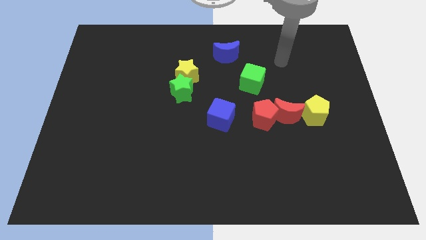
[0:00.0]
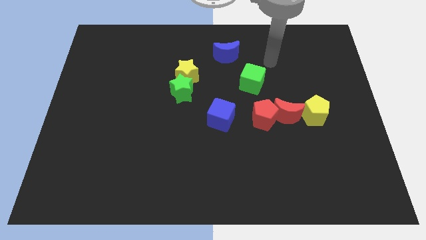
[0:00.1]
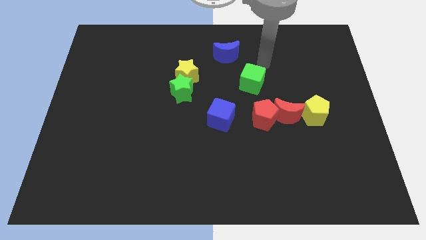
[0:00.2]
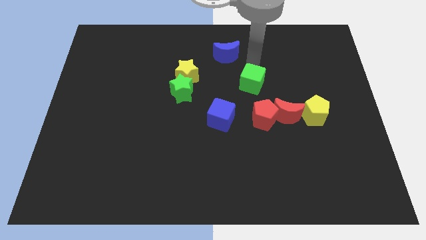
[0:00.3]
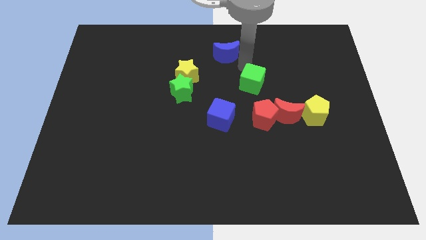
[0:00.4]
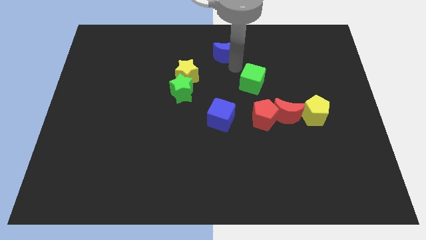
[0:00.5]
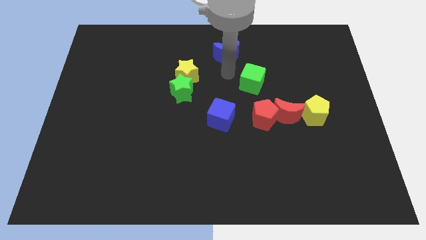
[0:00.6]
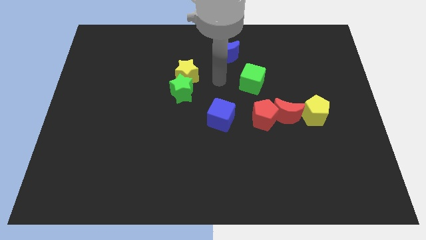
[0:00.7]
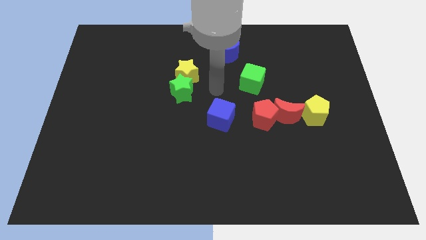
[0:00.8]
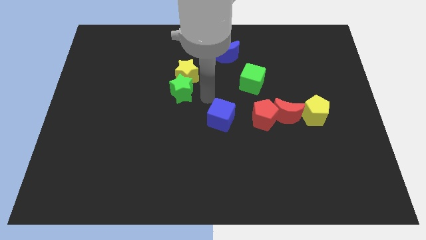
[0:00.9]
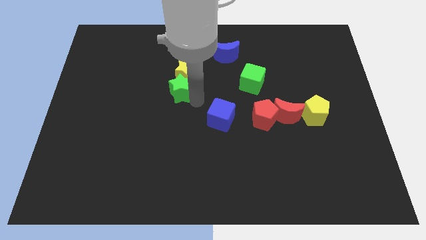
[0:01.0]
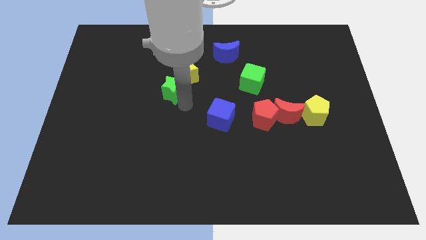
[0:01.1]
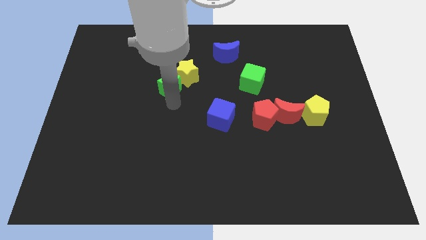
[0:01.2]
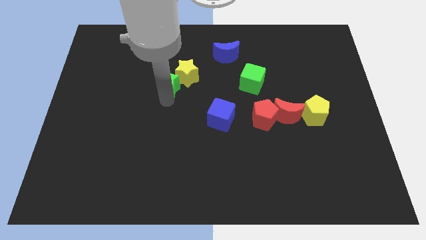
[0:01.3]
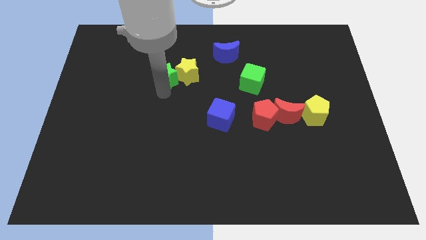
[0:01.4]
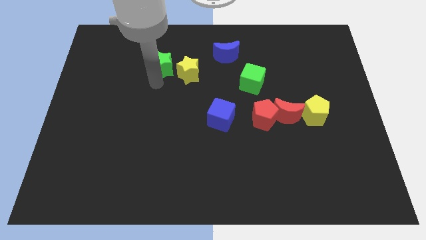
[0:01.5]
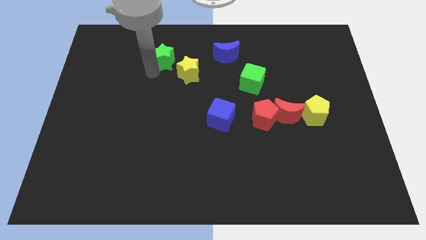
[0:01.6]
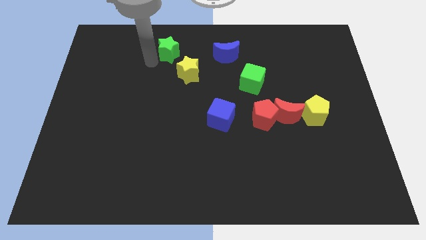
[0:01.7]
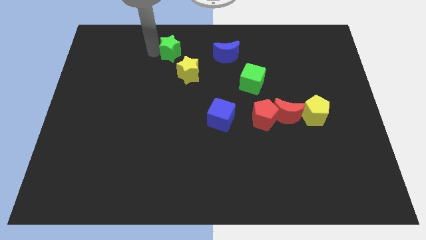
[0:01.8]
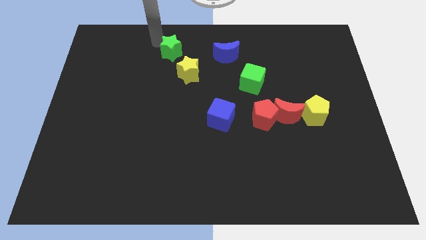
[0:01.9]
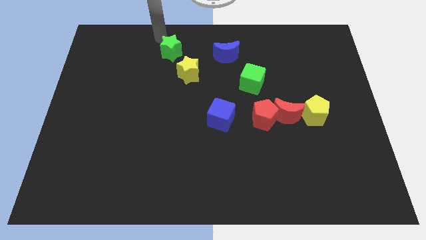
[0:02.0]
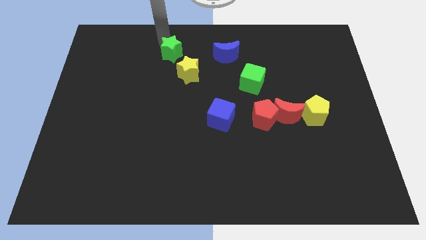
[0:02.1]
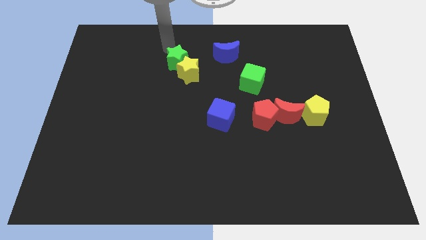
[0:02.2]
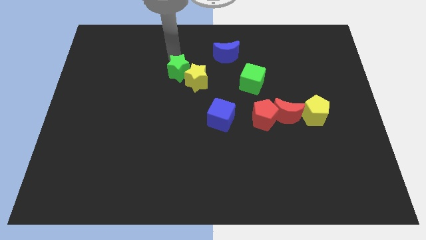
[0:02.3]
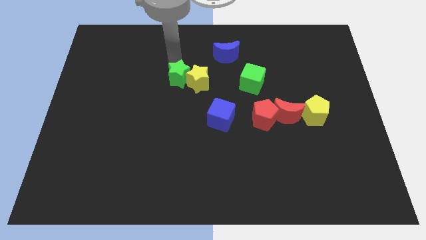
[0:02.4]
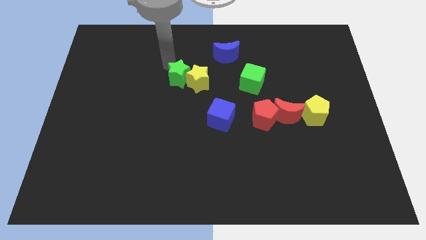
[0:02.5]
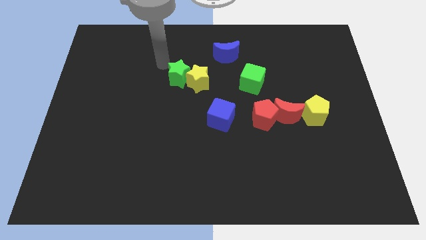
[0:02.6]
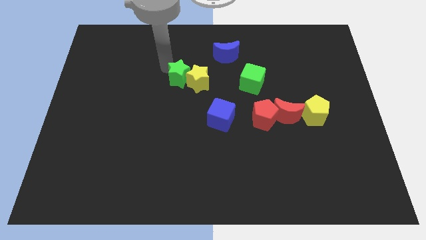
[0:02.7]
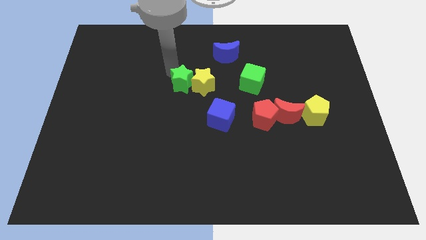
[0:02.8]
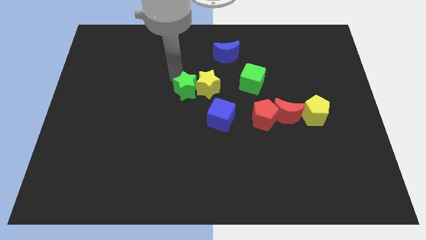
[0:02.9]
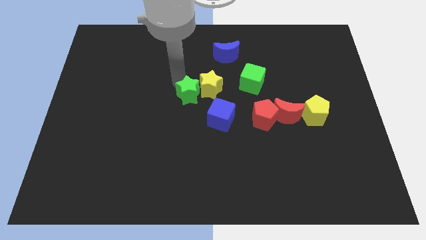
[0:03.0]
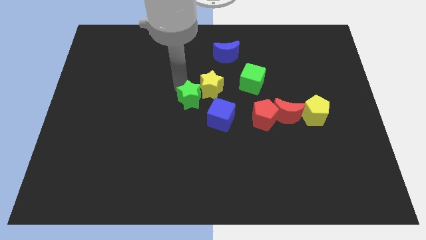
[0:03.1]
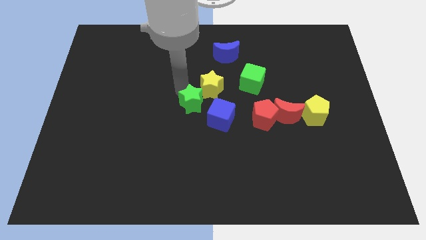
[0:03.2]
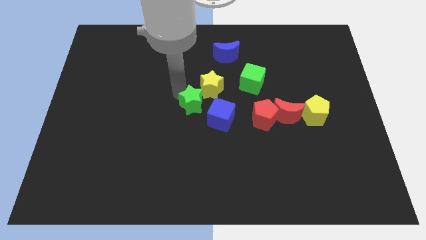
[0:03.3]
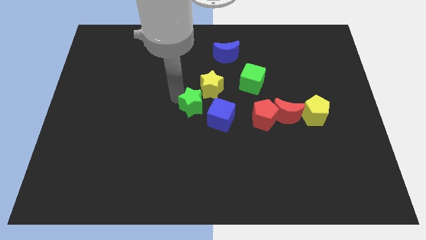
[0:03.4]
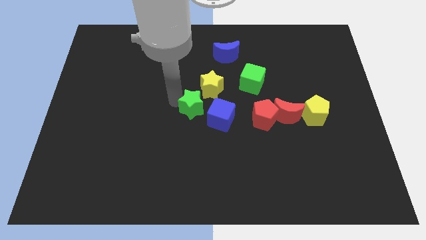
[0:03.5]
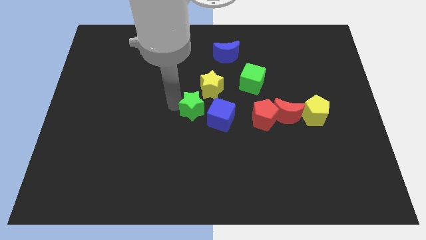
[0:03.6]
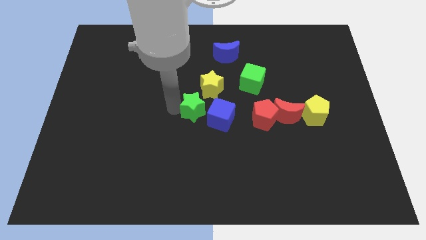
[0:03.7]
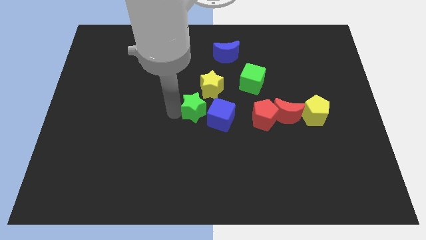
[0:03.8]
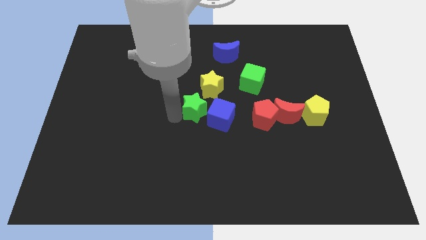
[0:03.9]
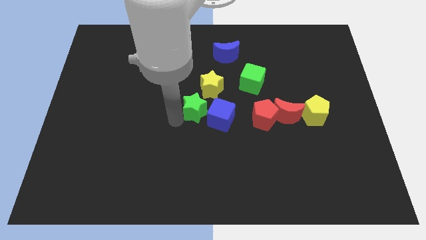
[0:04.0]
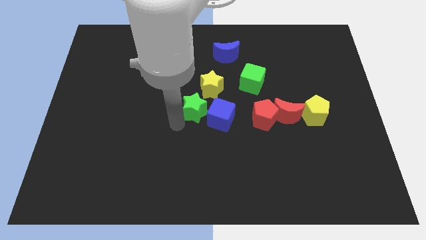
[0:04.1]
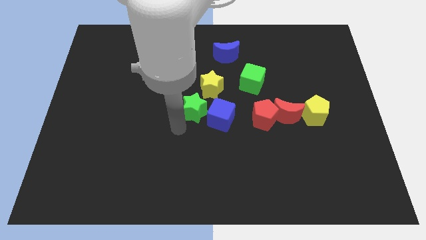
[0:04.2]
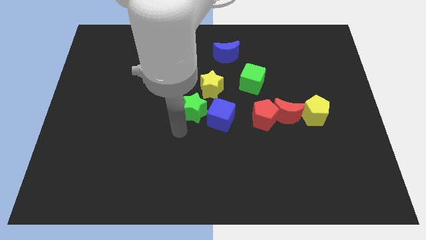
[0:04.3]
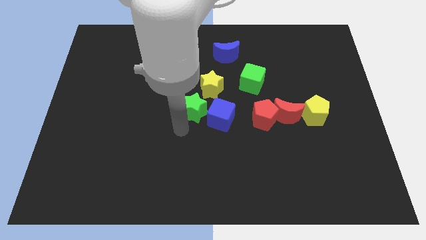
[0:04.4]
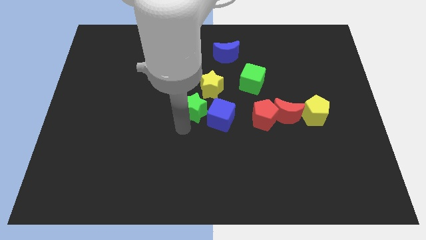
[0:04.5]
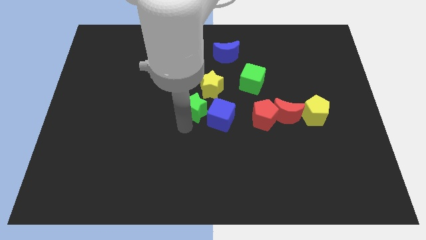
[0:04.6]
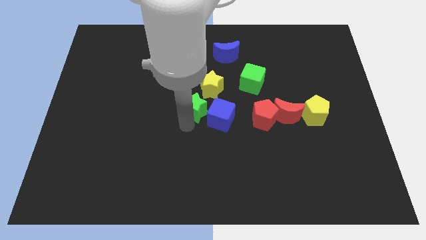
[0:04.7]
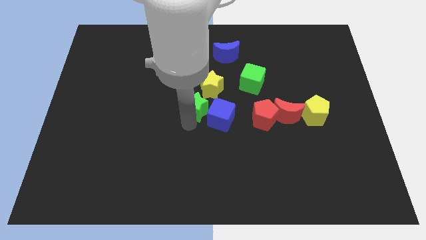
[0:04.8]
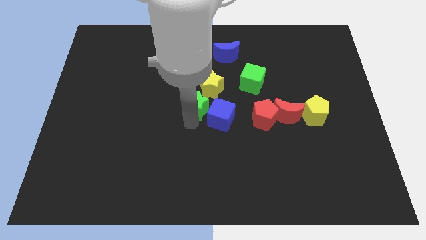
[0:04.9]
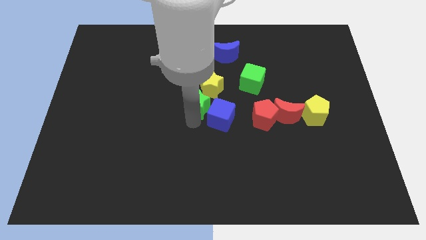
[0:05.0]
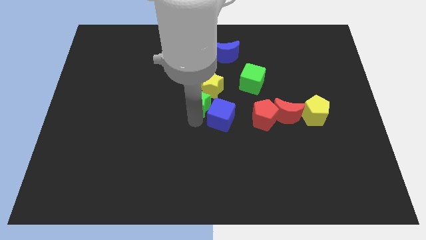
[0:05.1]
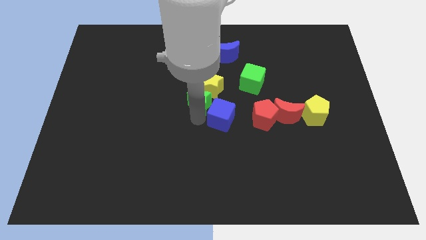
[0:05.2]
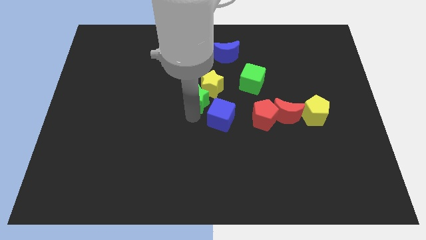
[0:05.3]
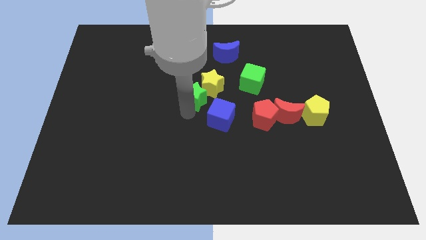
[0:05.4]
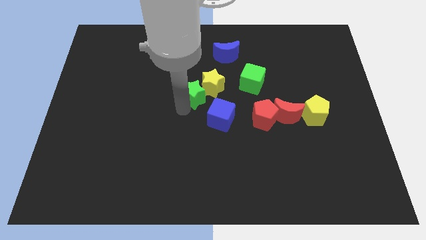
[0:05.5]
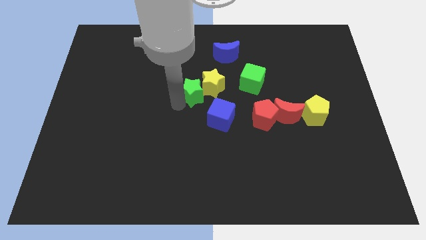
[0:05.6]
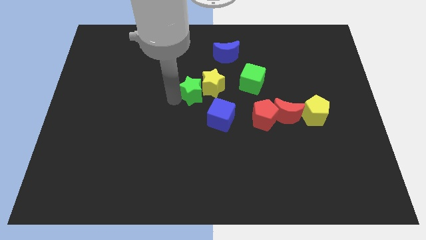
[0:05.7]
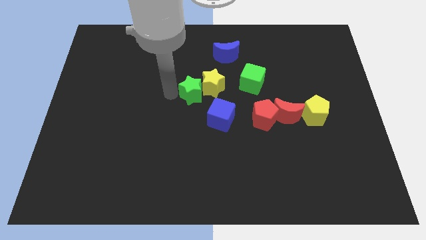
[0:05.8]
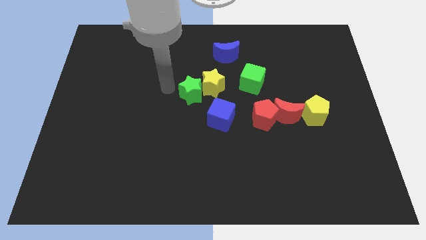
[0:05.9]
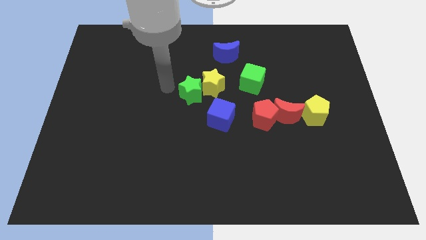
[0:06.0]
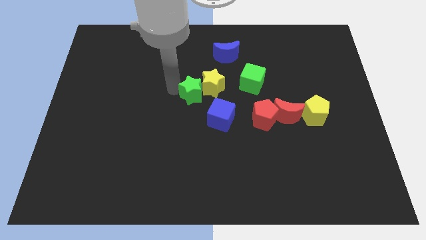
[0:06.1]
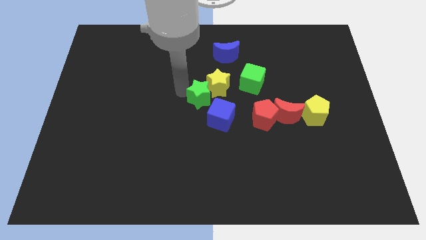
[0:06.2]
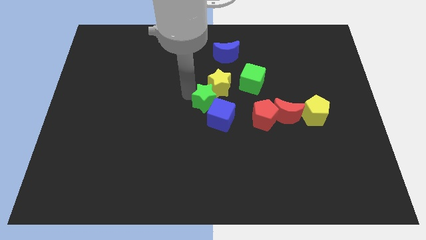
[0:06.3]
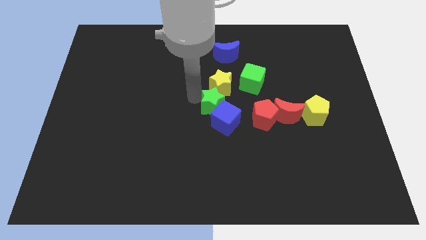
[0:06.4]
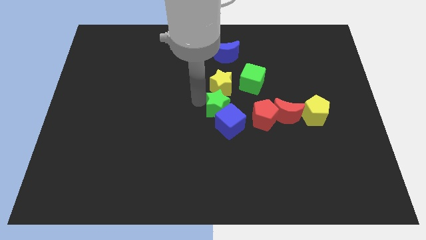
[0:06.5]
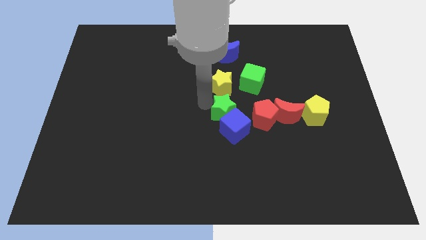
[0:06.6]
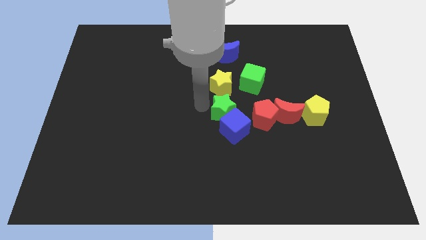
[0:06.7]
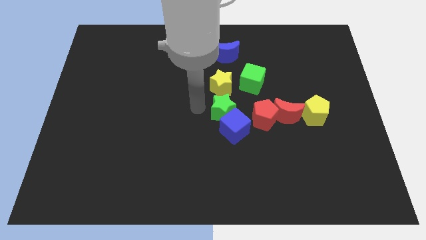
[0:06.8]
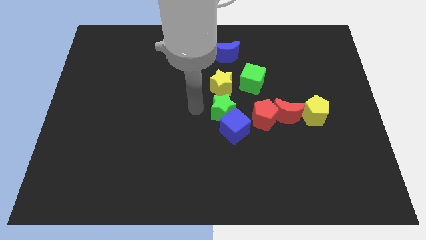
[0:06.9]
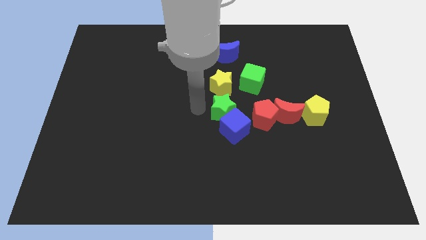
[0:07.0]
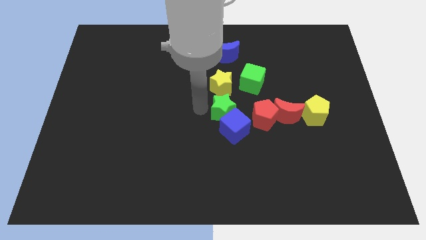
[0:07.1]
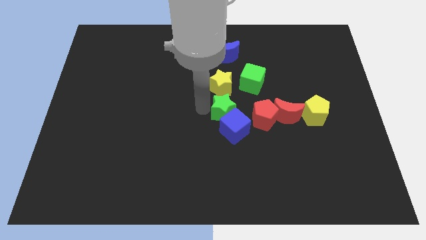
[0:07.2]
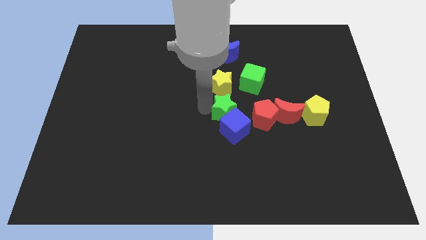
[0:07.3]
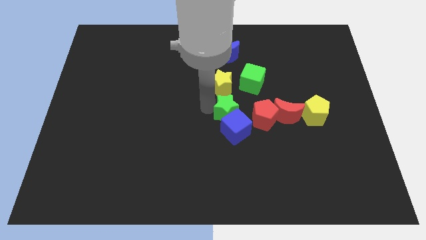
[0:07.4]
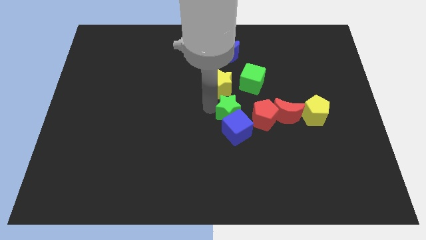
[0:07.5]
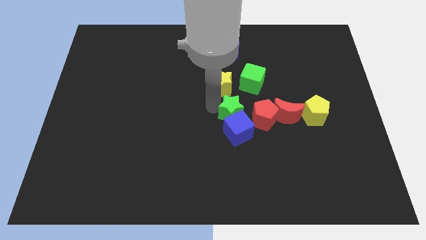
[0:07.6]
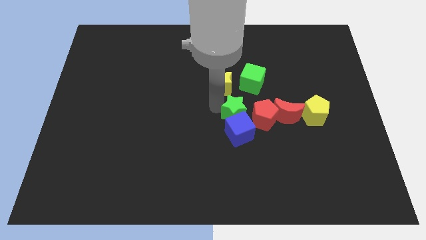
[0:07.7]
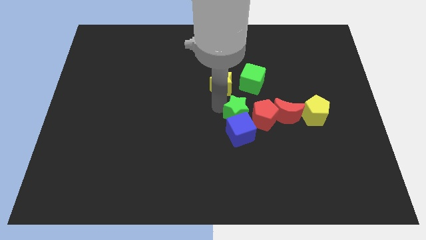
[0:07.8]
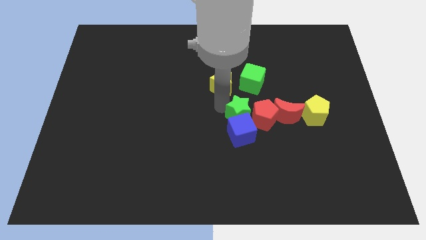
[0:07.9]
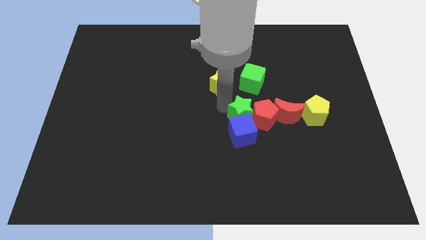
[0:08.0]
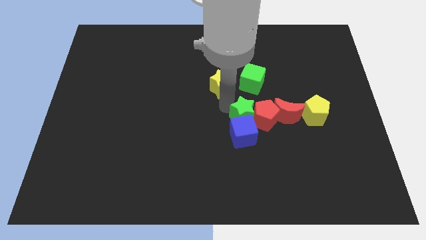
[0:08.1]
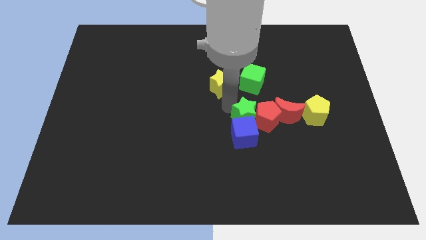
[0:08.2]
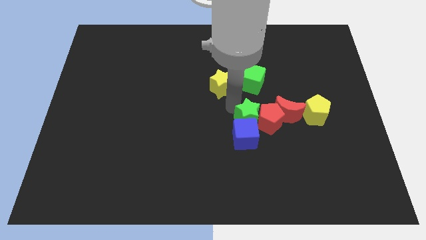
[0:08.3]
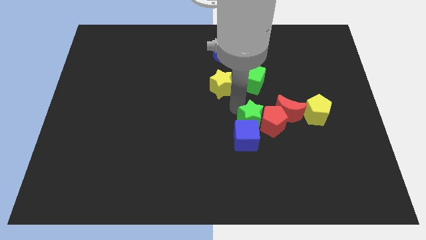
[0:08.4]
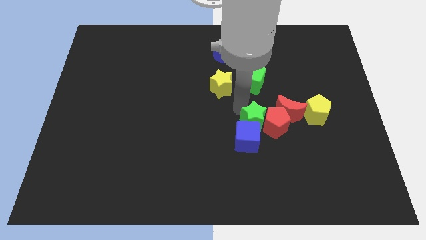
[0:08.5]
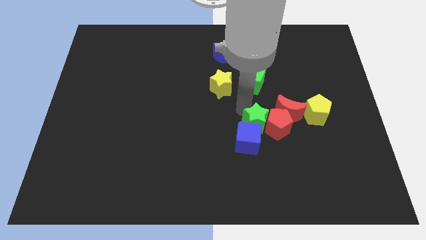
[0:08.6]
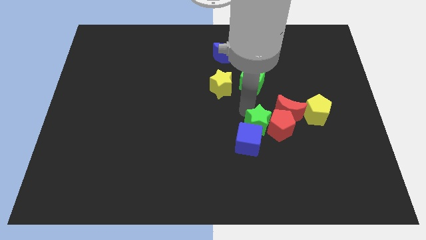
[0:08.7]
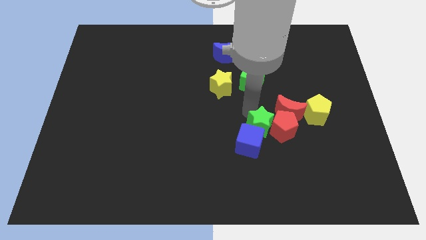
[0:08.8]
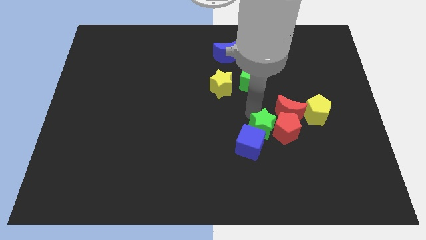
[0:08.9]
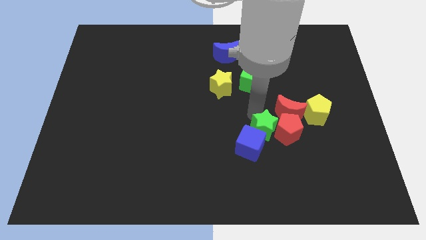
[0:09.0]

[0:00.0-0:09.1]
slide the green star down and to the right
